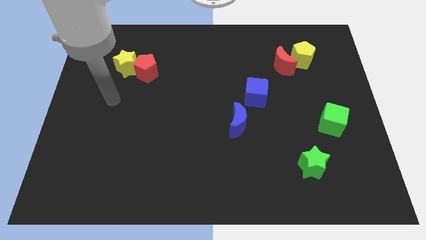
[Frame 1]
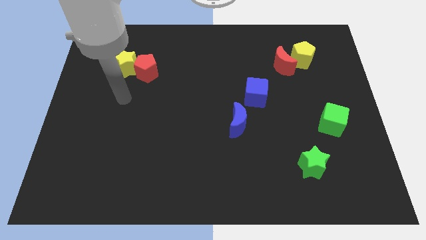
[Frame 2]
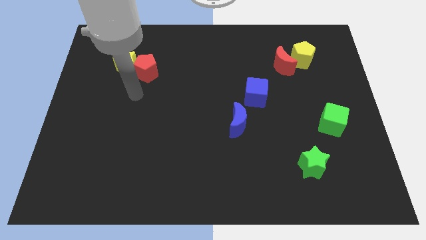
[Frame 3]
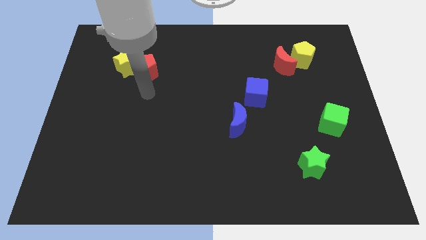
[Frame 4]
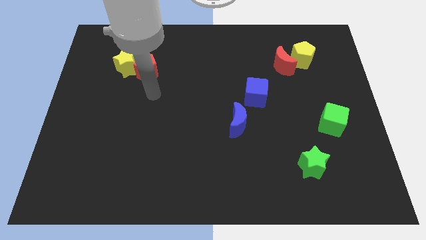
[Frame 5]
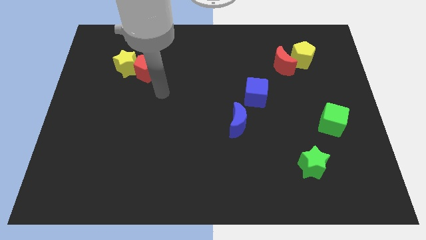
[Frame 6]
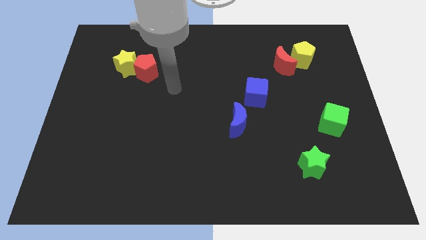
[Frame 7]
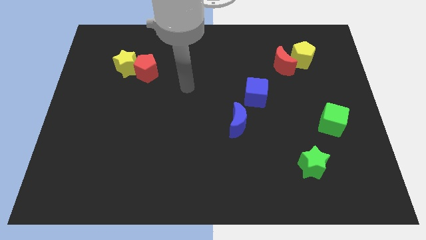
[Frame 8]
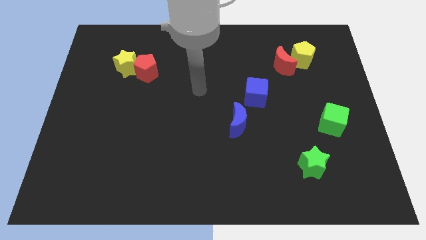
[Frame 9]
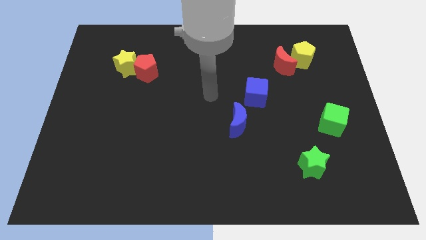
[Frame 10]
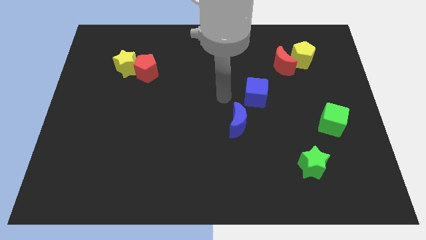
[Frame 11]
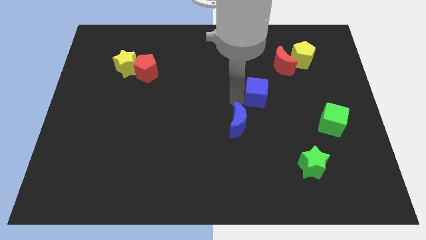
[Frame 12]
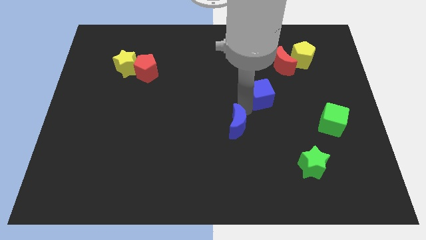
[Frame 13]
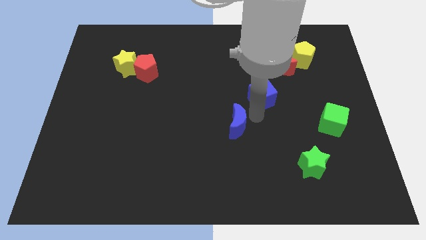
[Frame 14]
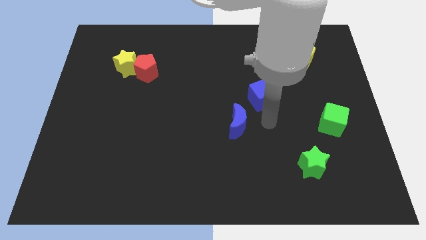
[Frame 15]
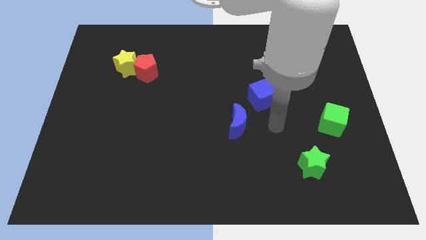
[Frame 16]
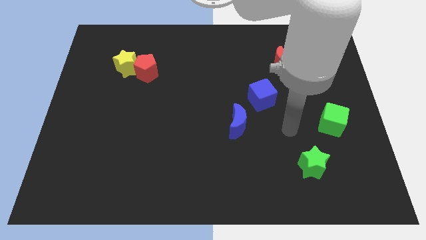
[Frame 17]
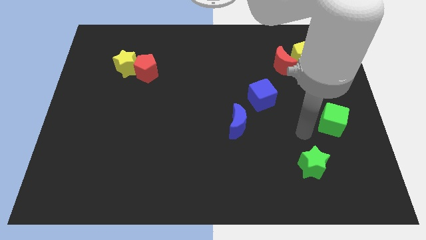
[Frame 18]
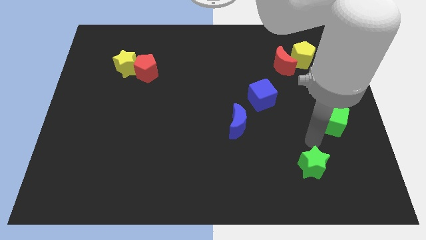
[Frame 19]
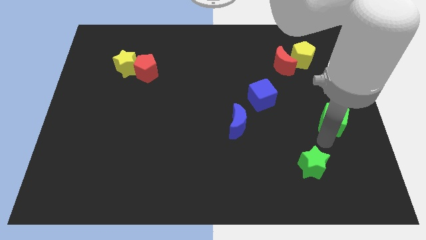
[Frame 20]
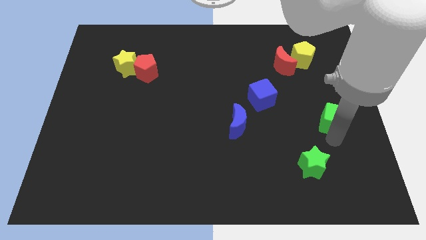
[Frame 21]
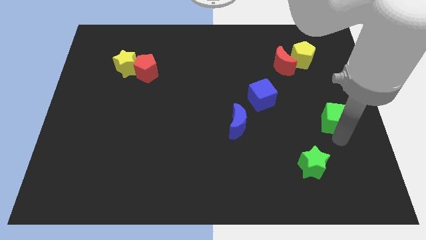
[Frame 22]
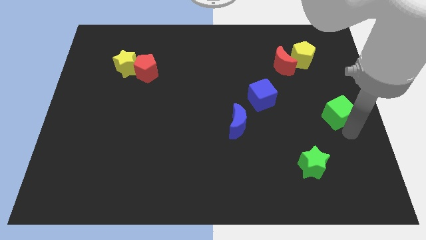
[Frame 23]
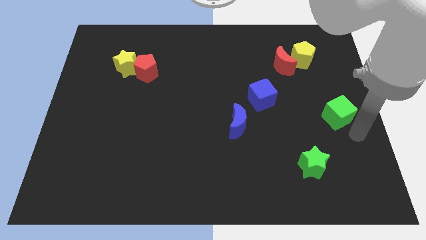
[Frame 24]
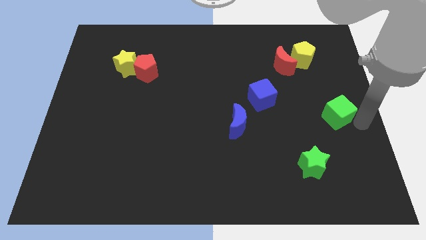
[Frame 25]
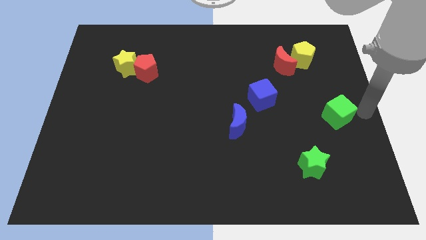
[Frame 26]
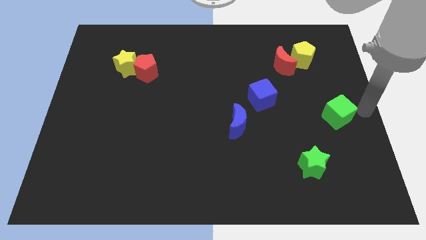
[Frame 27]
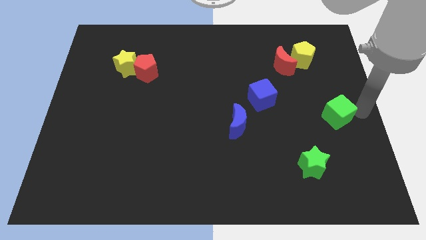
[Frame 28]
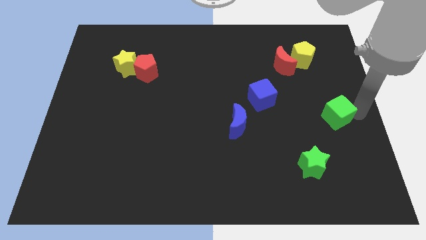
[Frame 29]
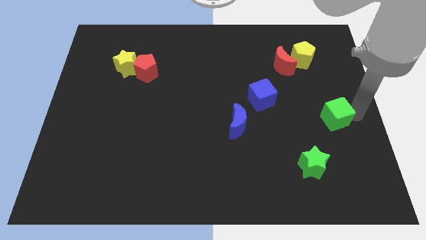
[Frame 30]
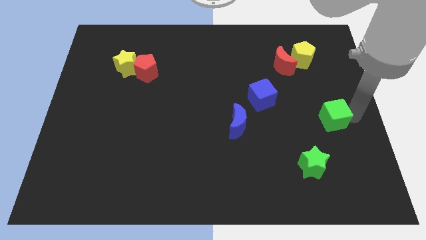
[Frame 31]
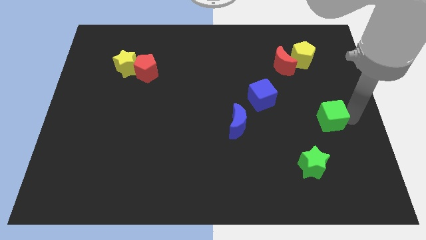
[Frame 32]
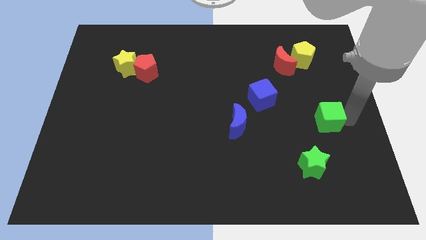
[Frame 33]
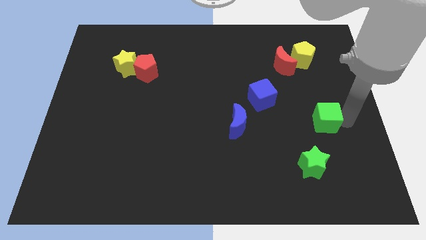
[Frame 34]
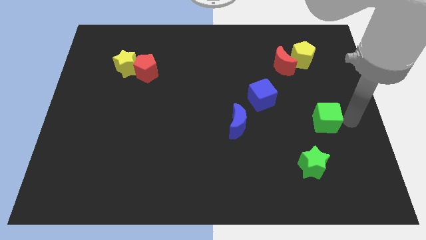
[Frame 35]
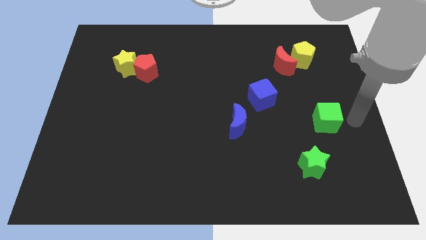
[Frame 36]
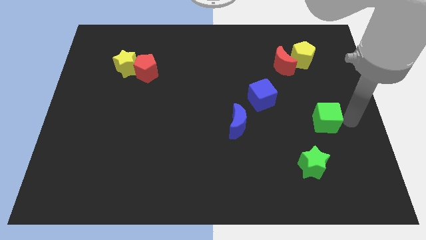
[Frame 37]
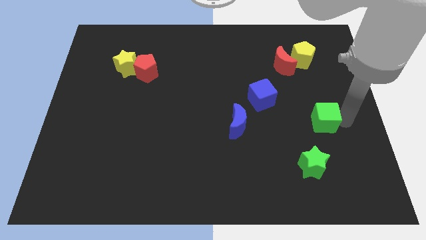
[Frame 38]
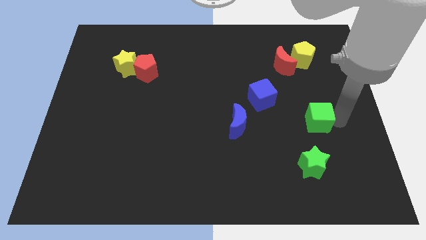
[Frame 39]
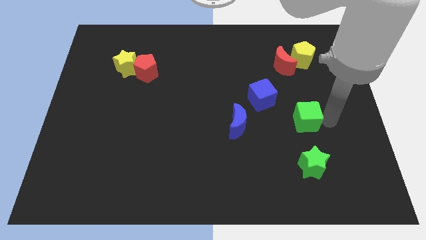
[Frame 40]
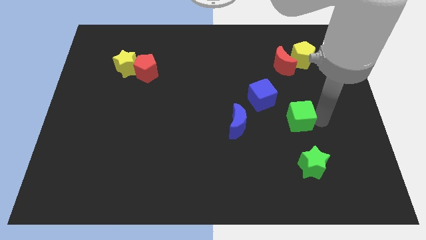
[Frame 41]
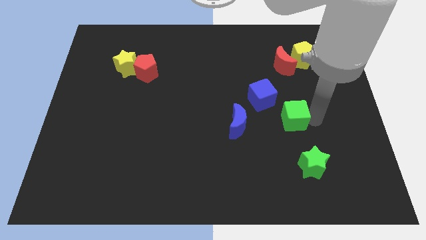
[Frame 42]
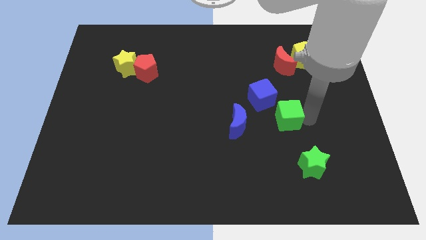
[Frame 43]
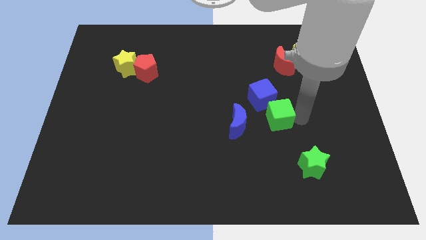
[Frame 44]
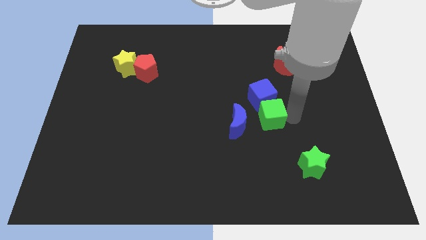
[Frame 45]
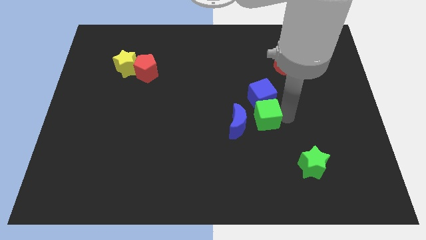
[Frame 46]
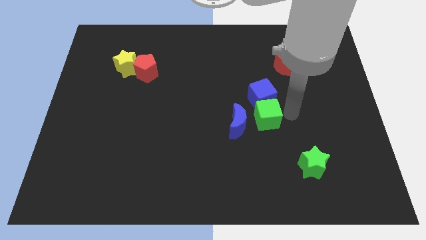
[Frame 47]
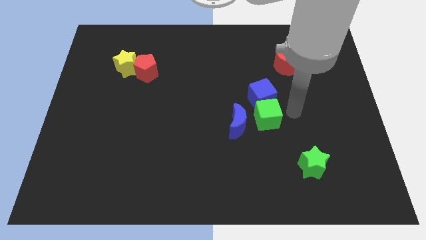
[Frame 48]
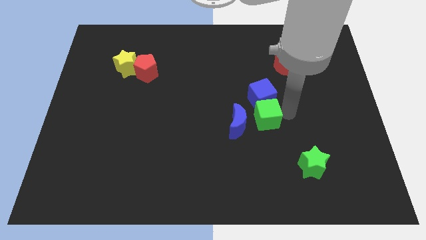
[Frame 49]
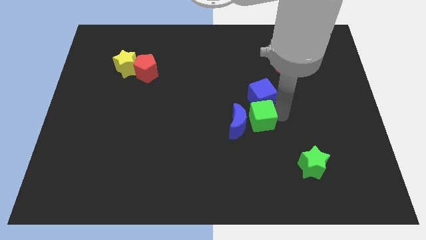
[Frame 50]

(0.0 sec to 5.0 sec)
put the green cube next to the blue moon

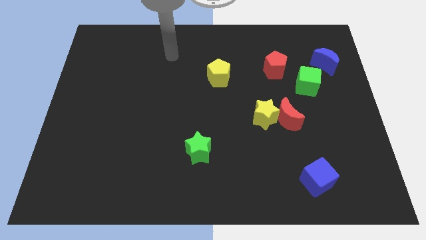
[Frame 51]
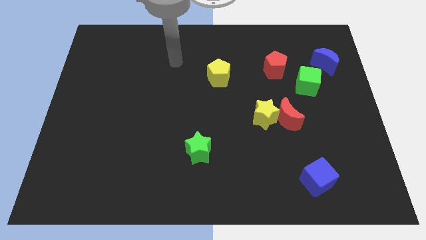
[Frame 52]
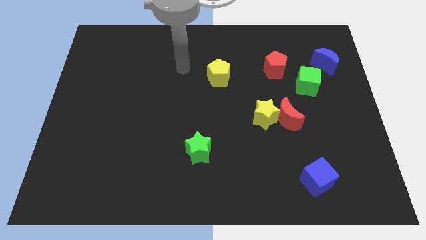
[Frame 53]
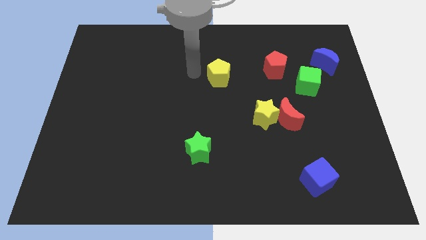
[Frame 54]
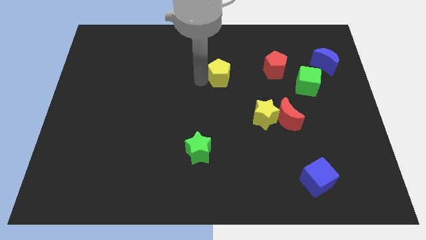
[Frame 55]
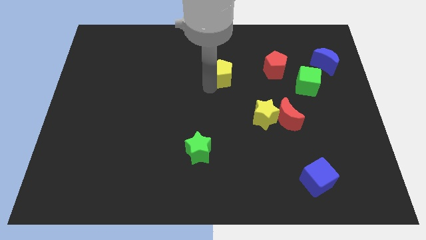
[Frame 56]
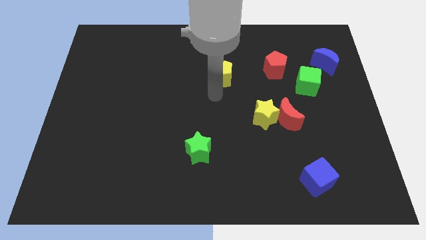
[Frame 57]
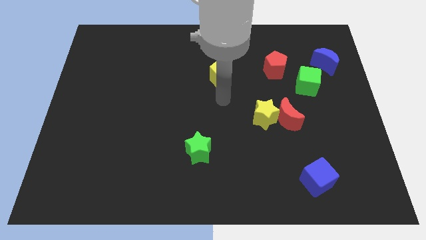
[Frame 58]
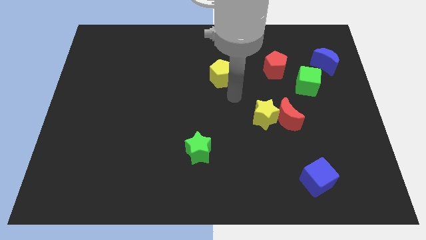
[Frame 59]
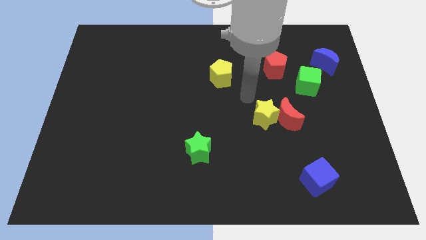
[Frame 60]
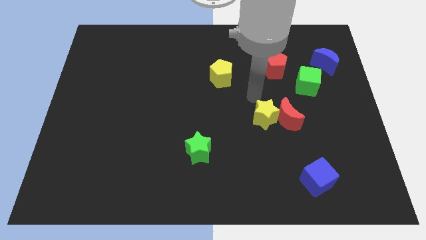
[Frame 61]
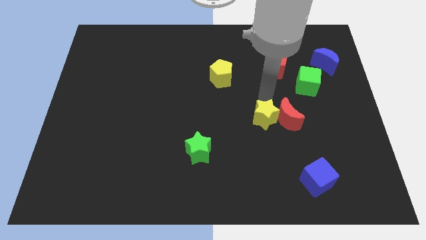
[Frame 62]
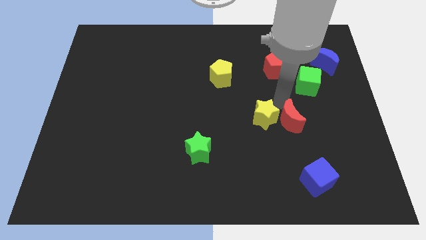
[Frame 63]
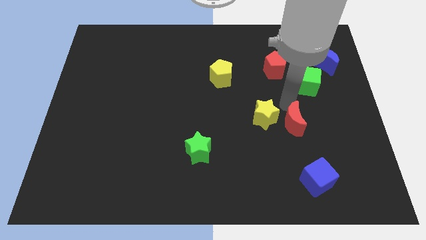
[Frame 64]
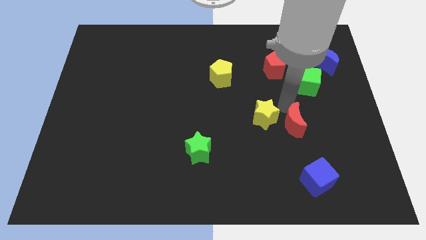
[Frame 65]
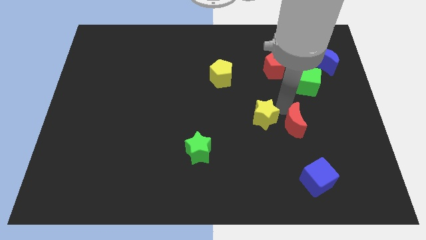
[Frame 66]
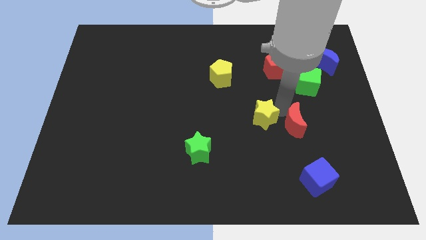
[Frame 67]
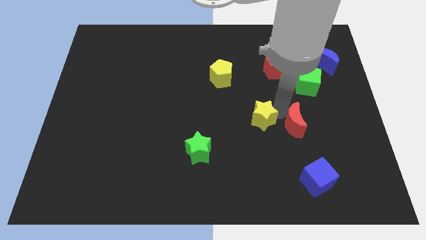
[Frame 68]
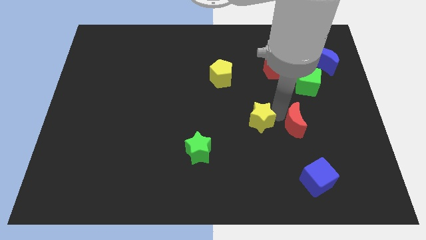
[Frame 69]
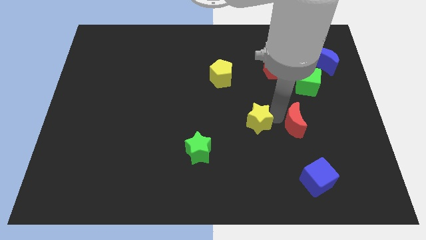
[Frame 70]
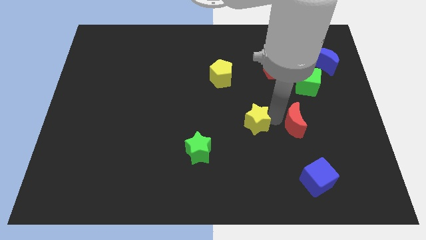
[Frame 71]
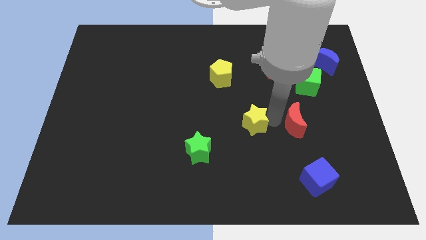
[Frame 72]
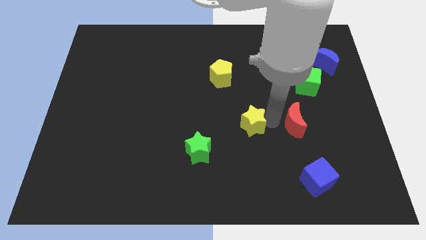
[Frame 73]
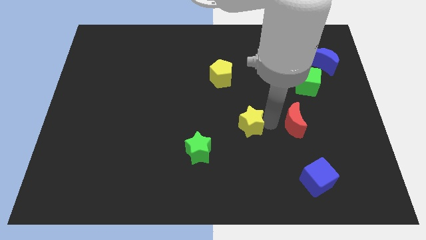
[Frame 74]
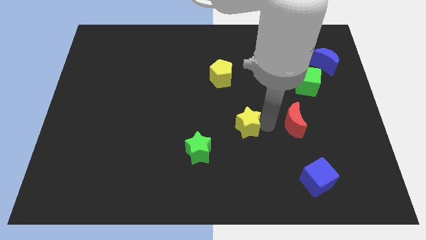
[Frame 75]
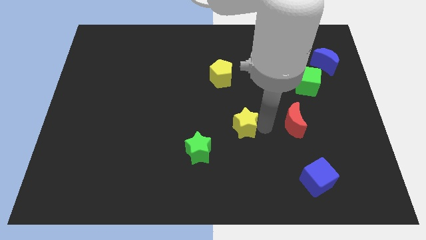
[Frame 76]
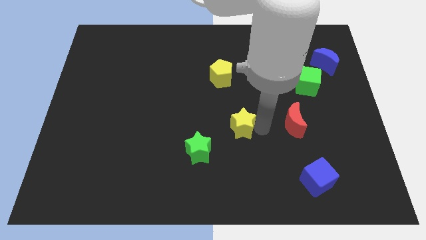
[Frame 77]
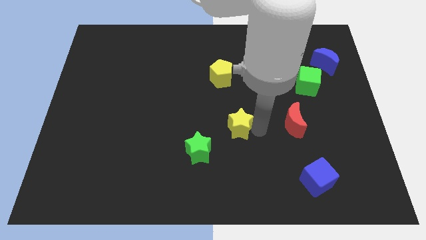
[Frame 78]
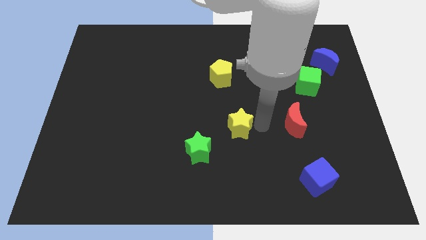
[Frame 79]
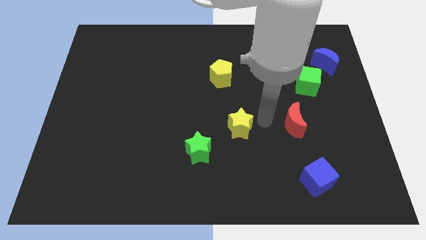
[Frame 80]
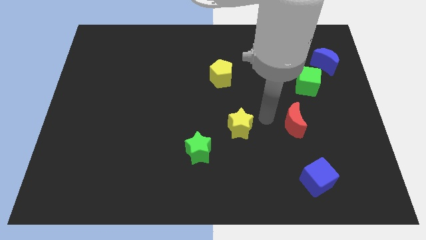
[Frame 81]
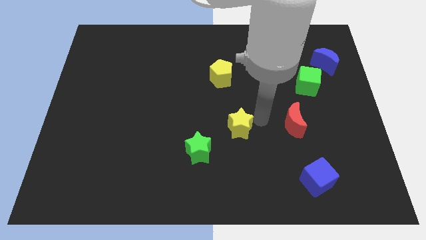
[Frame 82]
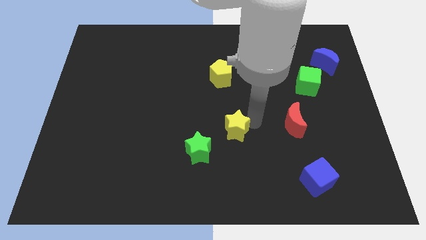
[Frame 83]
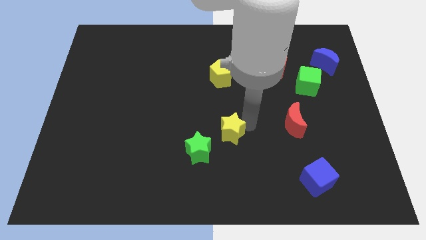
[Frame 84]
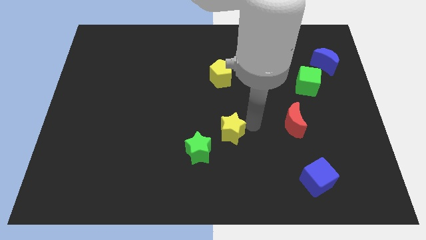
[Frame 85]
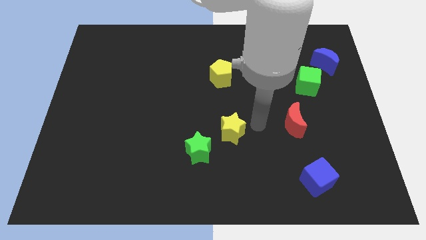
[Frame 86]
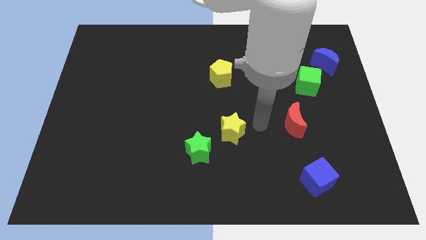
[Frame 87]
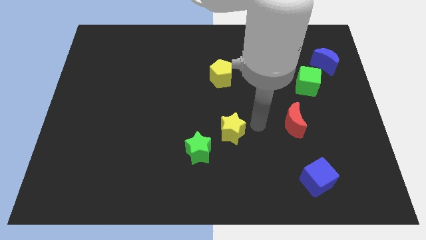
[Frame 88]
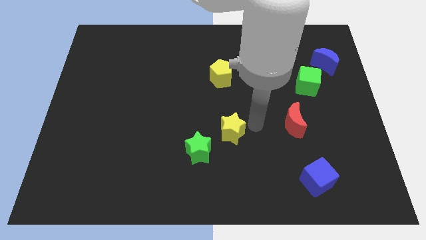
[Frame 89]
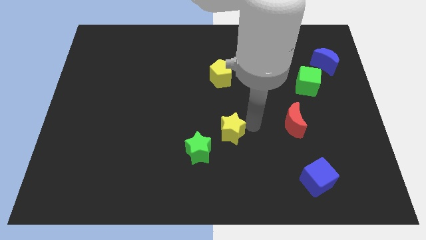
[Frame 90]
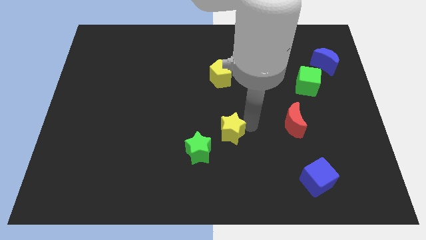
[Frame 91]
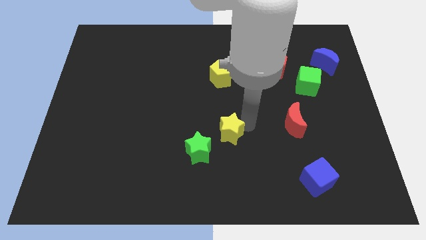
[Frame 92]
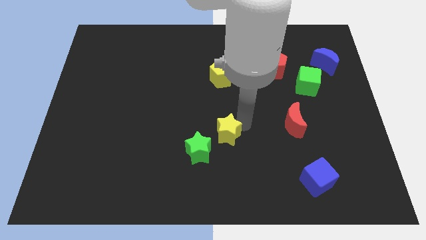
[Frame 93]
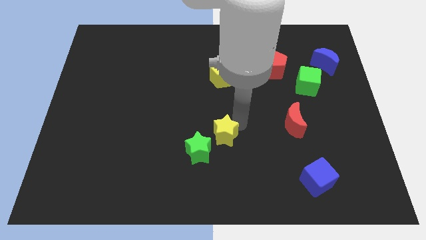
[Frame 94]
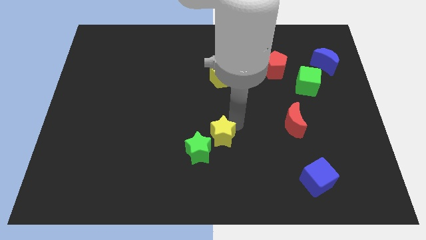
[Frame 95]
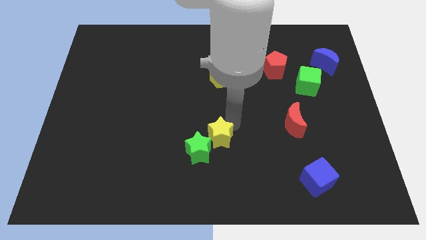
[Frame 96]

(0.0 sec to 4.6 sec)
slide the yellow star towards the green star
